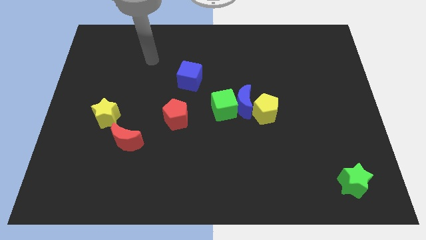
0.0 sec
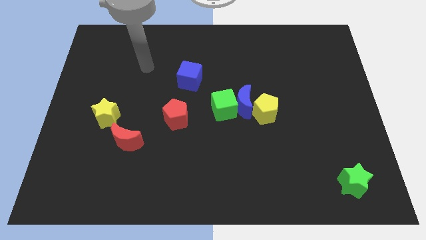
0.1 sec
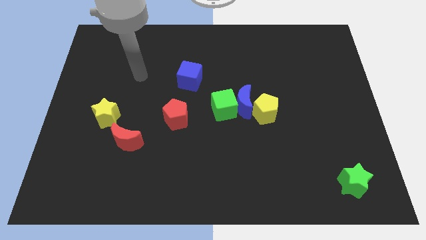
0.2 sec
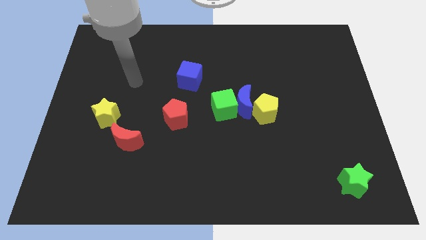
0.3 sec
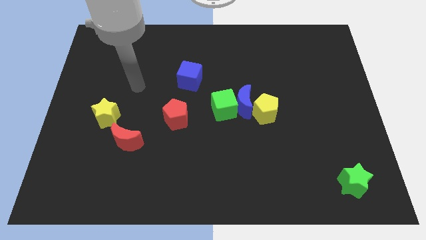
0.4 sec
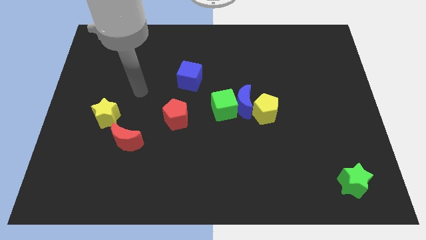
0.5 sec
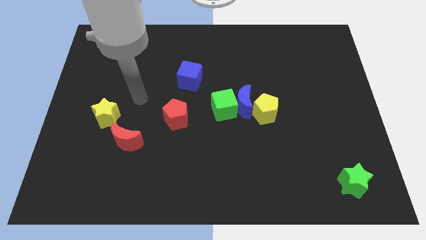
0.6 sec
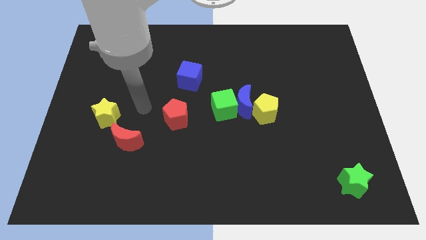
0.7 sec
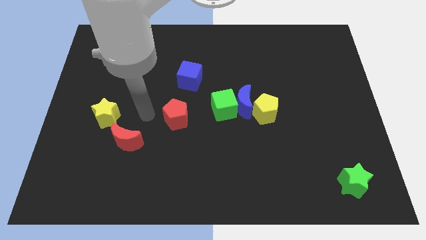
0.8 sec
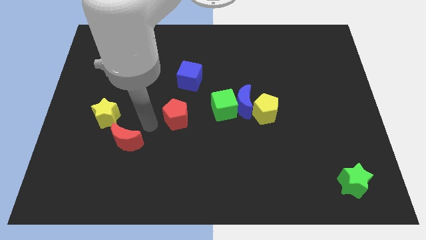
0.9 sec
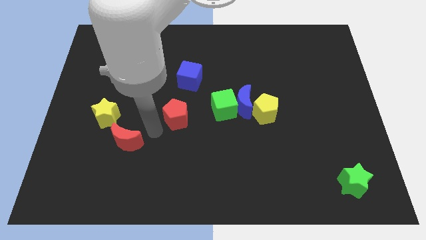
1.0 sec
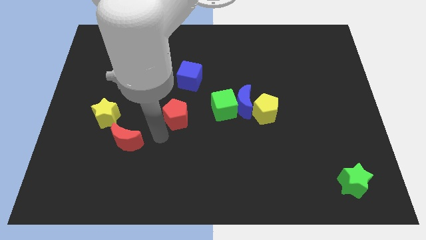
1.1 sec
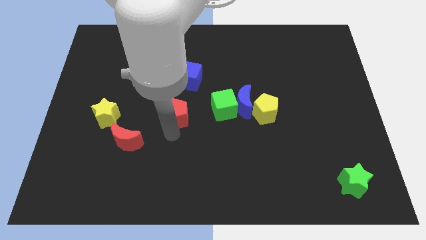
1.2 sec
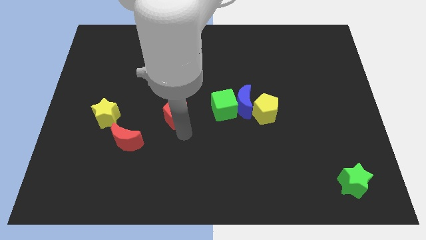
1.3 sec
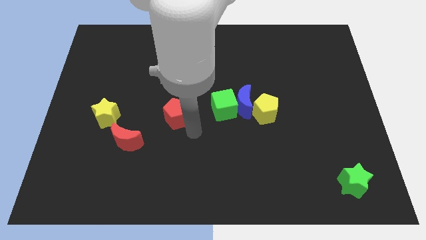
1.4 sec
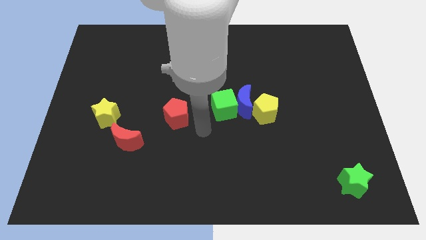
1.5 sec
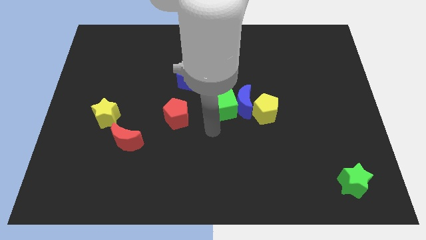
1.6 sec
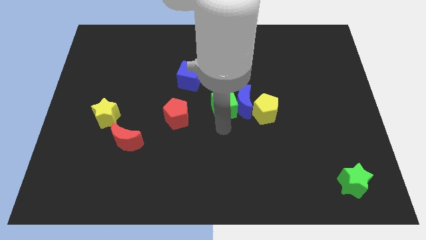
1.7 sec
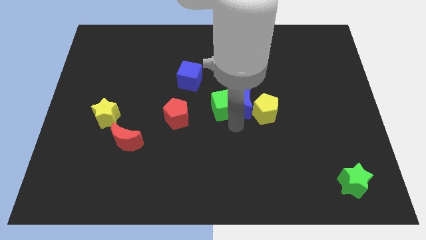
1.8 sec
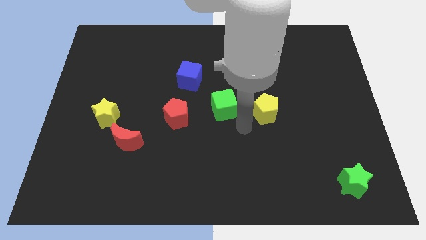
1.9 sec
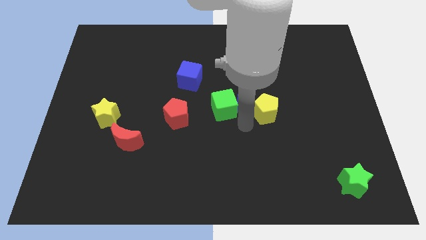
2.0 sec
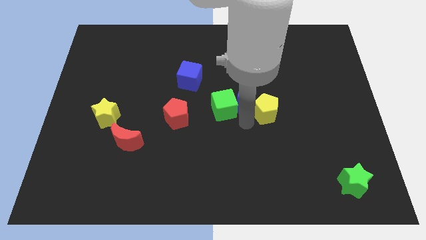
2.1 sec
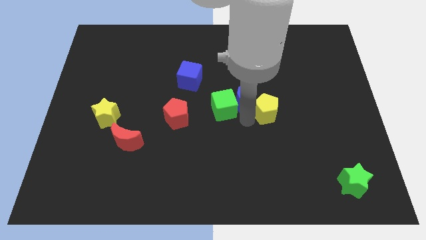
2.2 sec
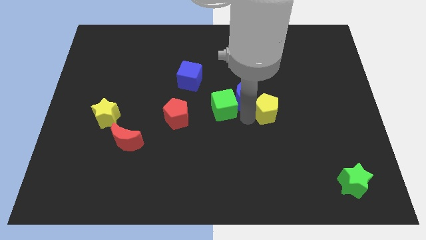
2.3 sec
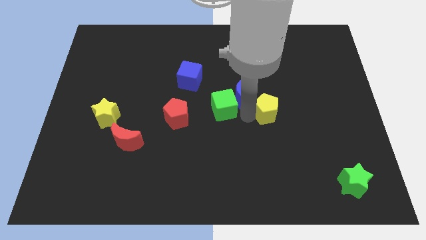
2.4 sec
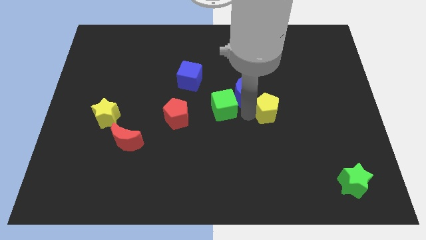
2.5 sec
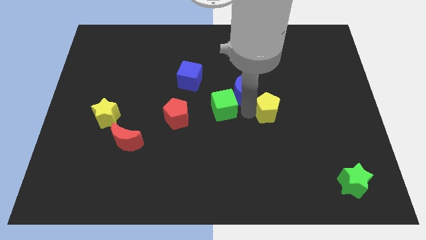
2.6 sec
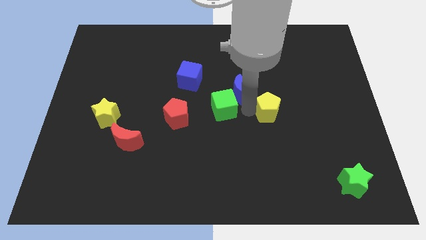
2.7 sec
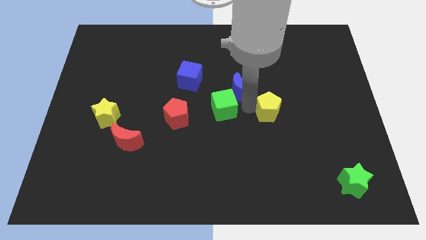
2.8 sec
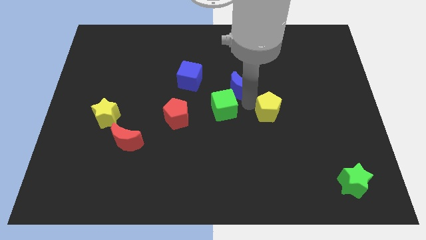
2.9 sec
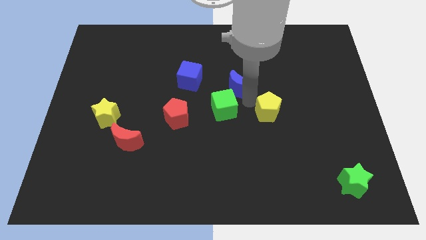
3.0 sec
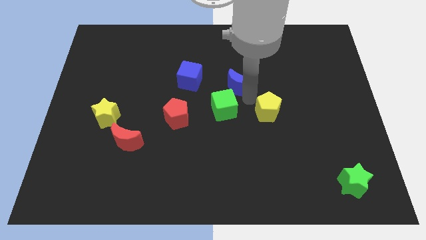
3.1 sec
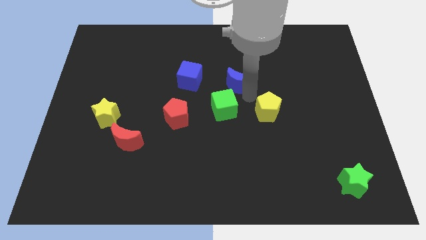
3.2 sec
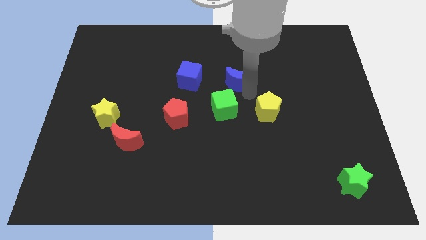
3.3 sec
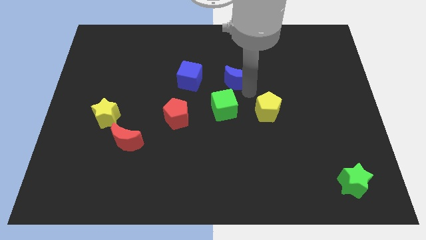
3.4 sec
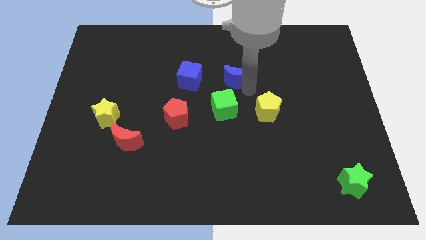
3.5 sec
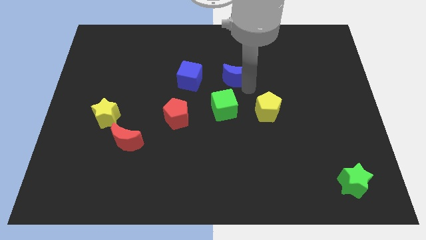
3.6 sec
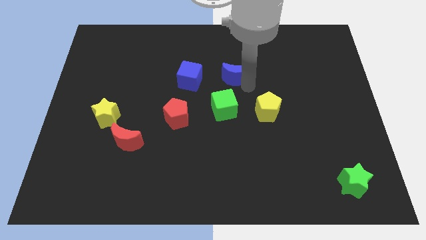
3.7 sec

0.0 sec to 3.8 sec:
pull the blue moon apart from the green cube and yellow pentagon

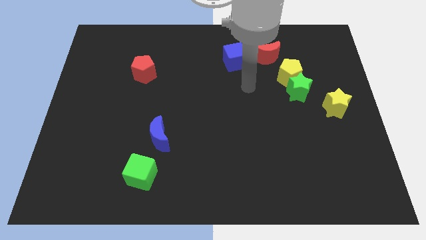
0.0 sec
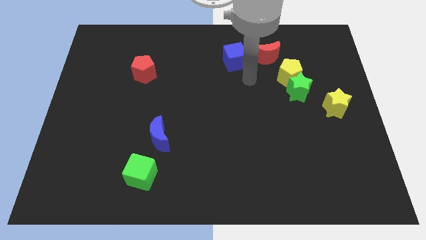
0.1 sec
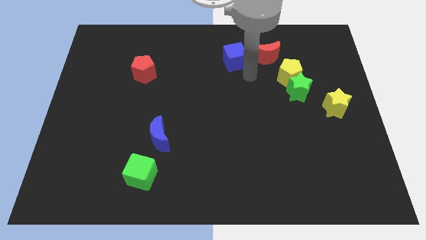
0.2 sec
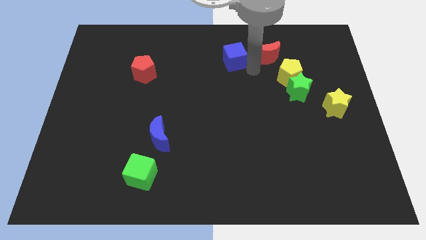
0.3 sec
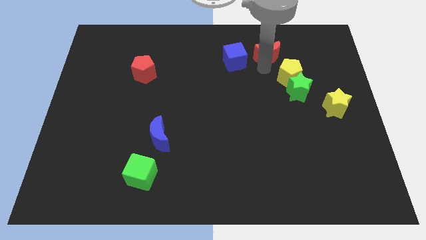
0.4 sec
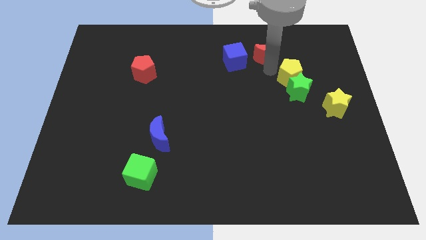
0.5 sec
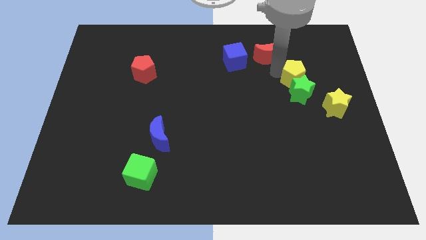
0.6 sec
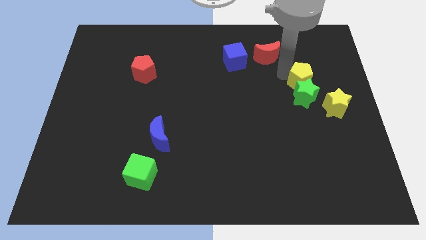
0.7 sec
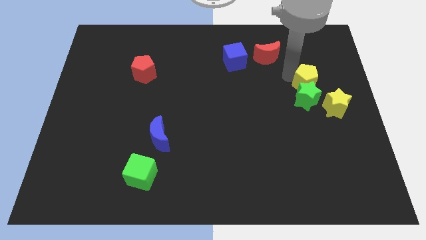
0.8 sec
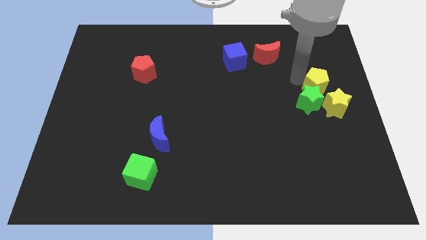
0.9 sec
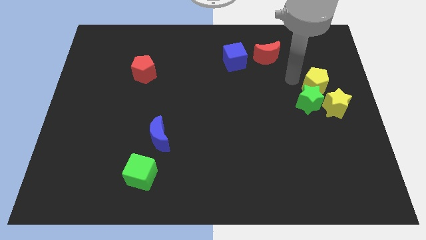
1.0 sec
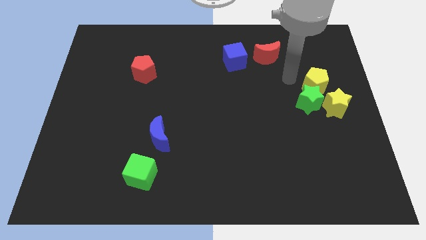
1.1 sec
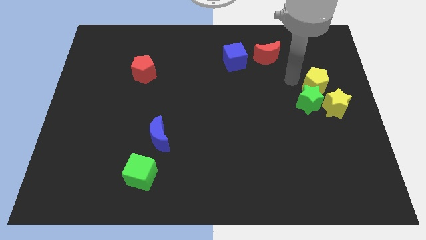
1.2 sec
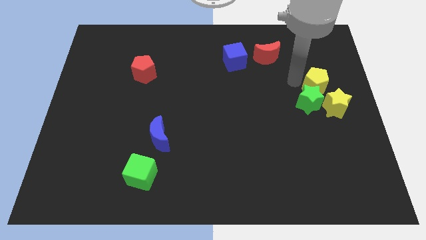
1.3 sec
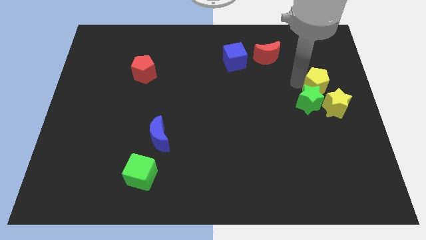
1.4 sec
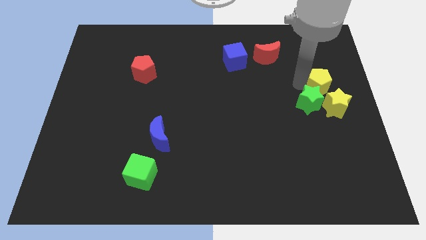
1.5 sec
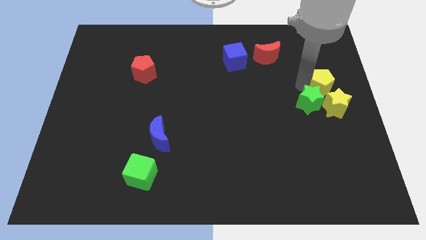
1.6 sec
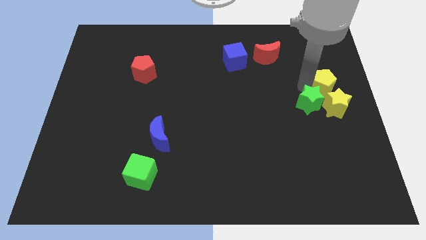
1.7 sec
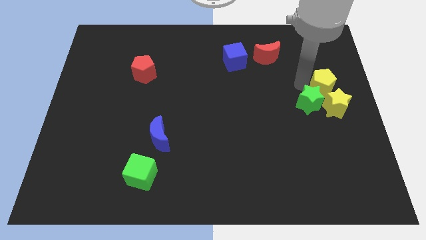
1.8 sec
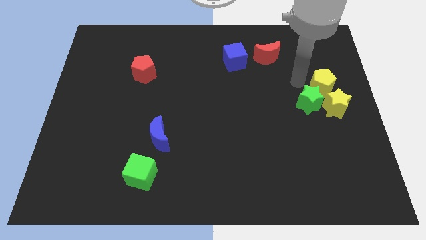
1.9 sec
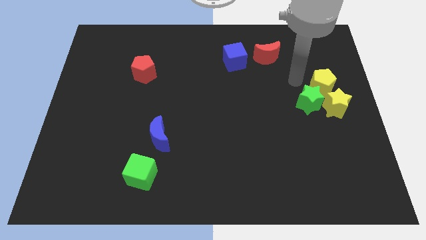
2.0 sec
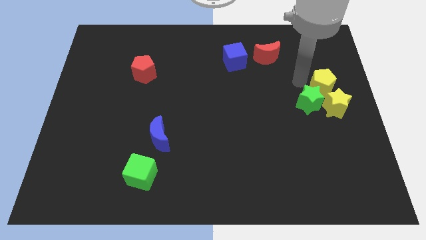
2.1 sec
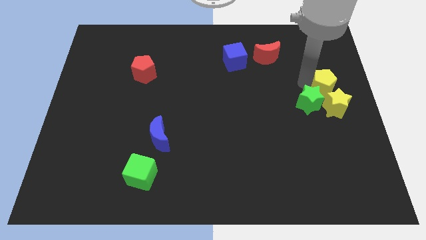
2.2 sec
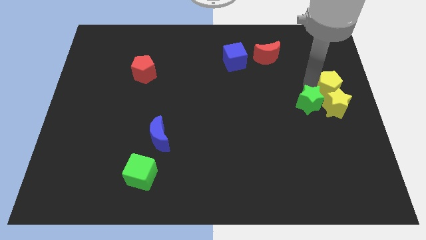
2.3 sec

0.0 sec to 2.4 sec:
move the yellow pentagon away from the green star and red moon

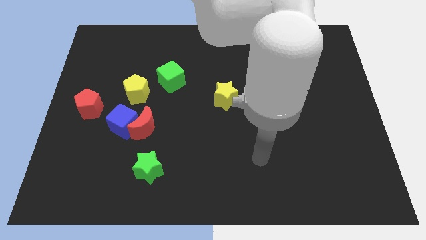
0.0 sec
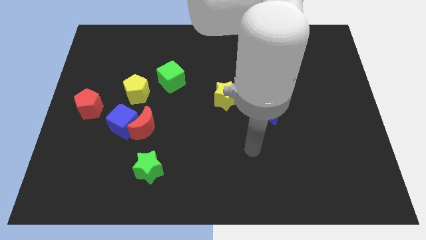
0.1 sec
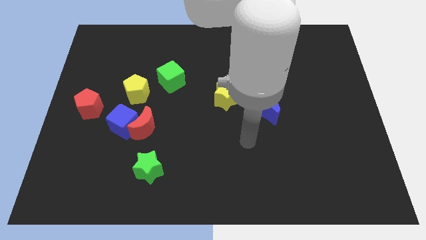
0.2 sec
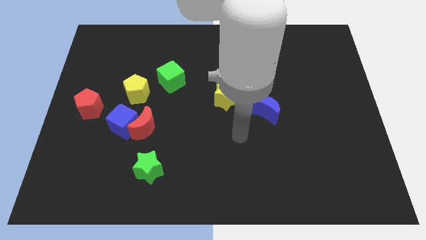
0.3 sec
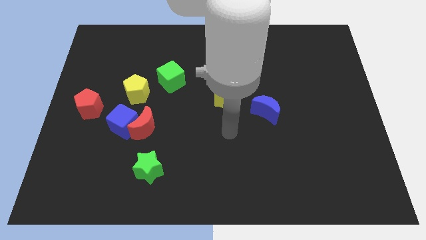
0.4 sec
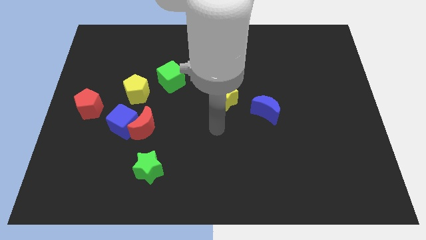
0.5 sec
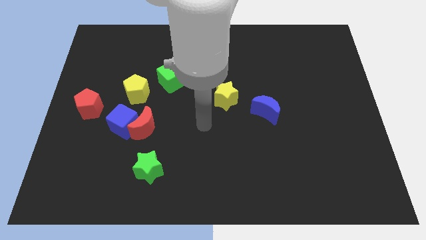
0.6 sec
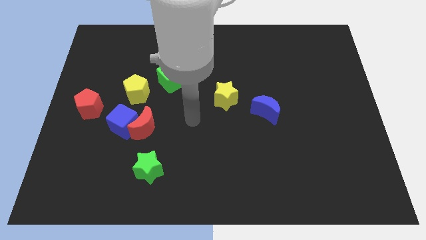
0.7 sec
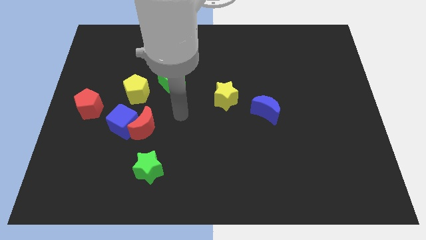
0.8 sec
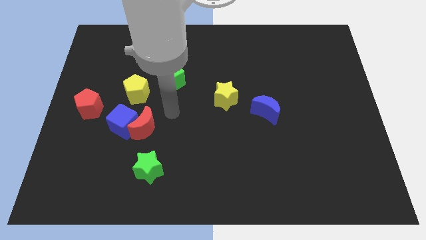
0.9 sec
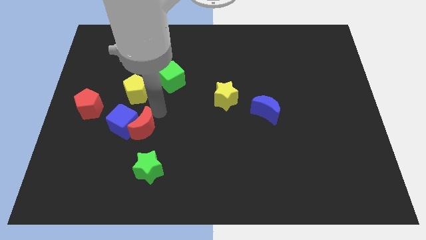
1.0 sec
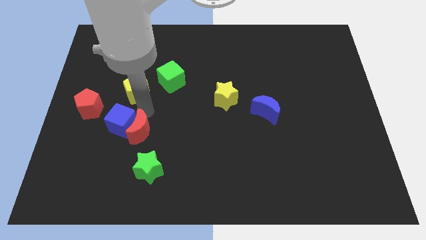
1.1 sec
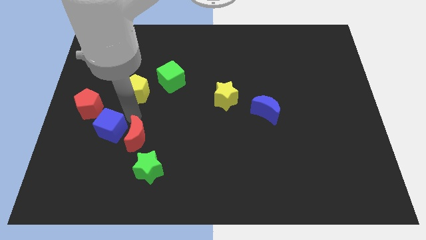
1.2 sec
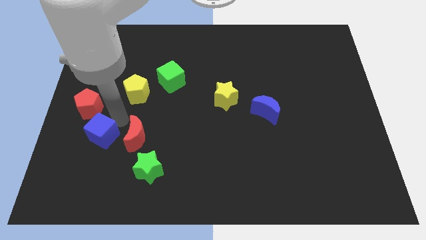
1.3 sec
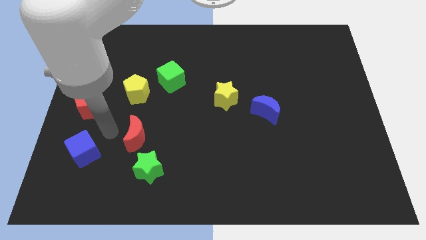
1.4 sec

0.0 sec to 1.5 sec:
separate the red moon from the blue cube

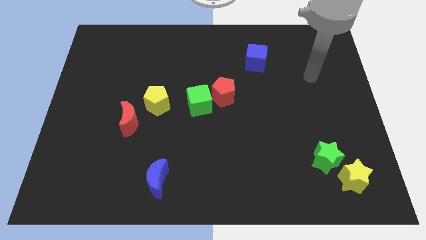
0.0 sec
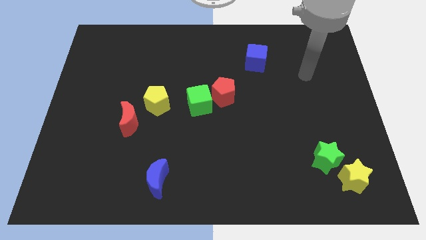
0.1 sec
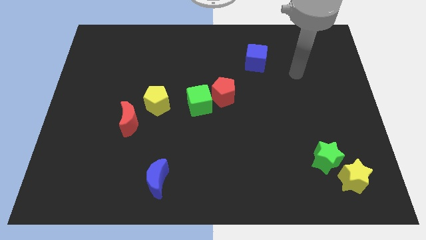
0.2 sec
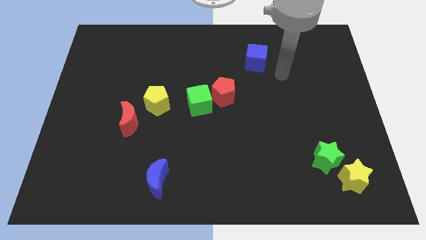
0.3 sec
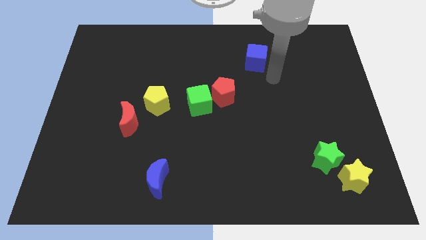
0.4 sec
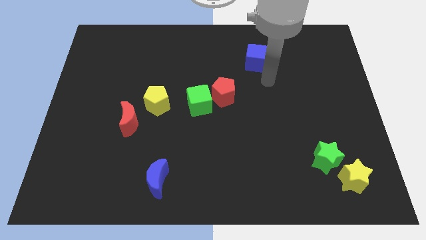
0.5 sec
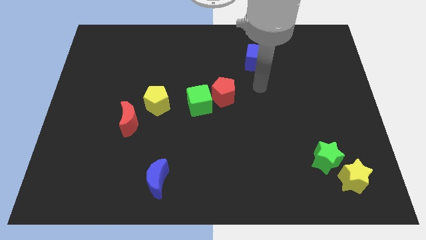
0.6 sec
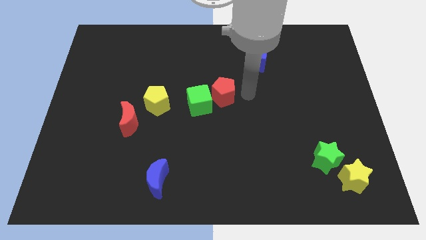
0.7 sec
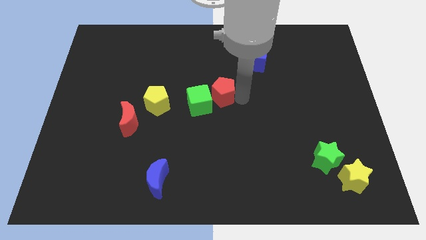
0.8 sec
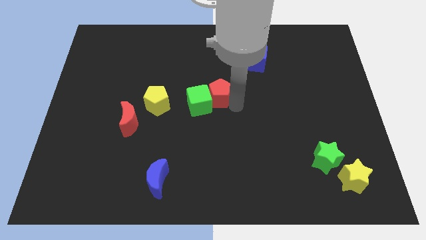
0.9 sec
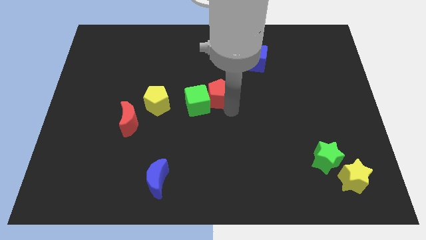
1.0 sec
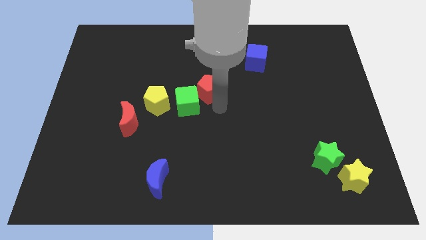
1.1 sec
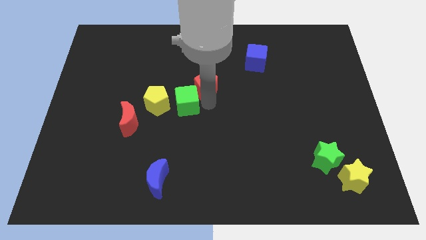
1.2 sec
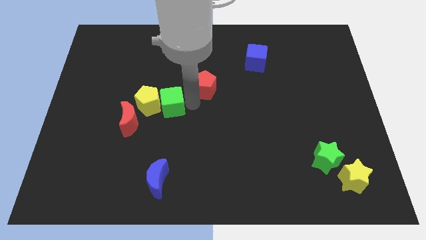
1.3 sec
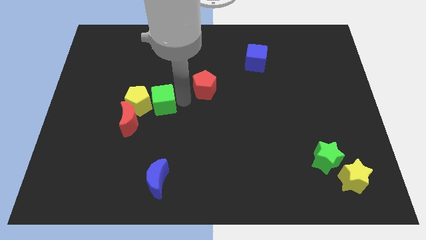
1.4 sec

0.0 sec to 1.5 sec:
separate the red pentagon from the green cube

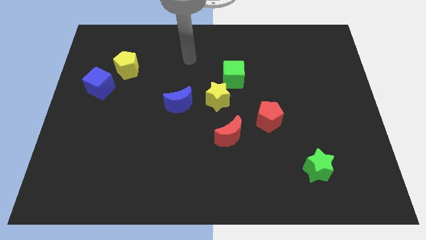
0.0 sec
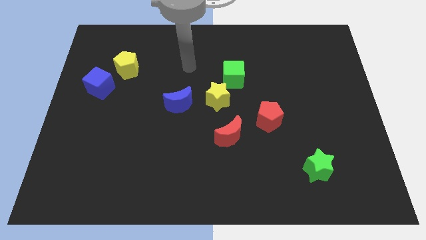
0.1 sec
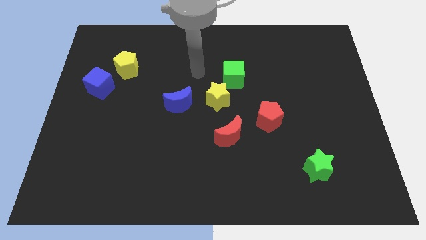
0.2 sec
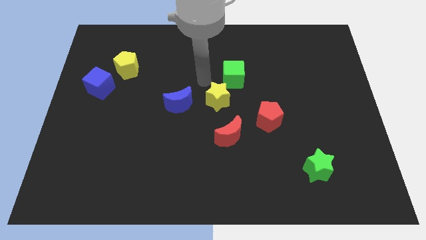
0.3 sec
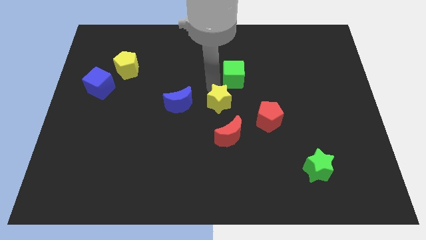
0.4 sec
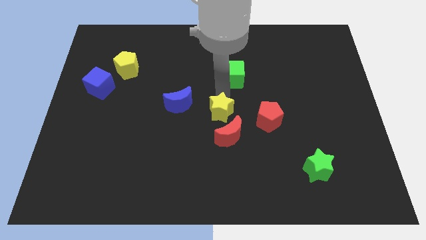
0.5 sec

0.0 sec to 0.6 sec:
pull the green cube apart from the yellow star
